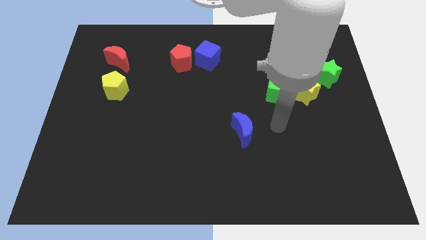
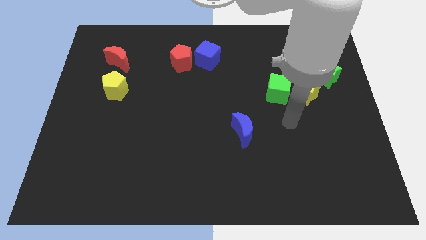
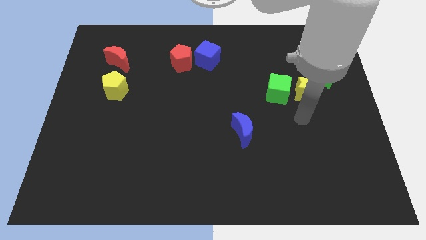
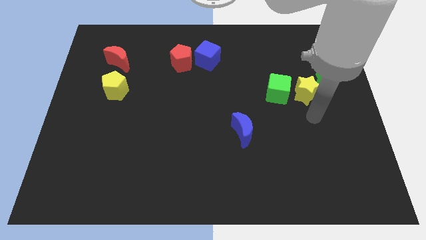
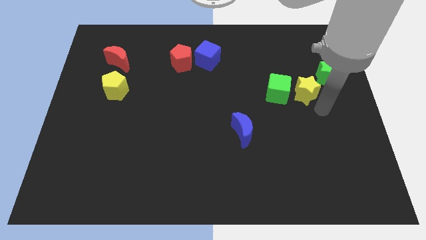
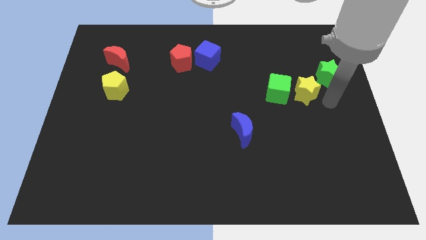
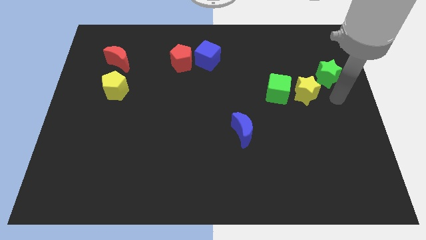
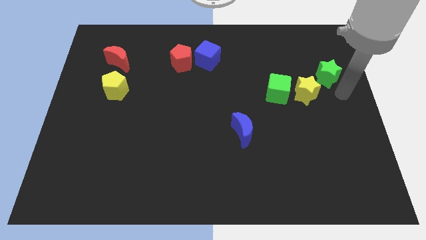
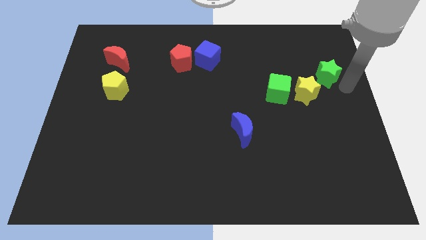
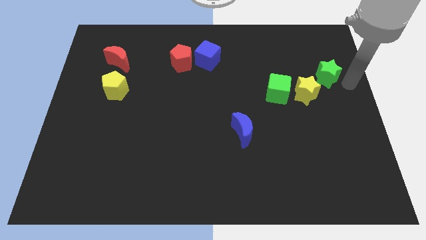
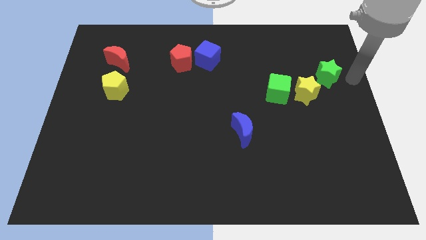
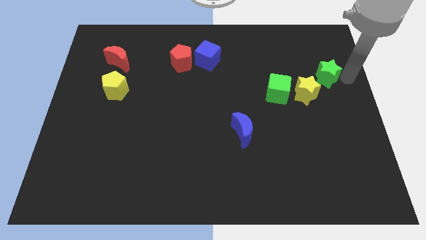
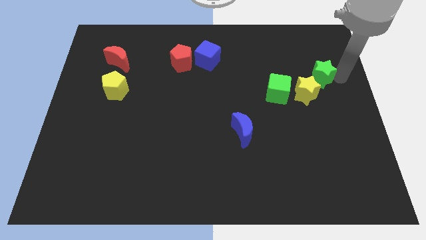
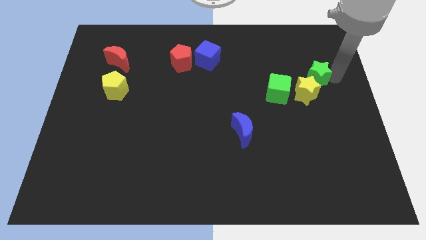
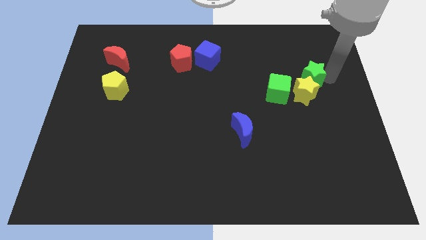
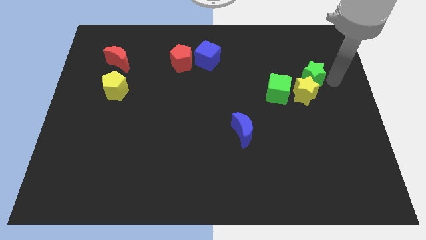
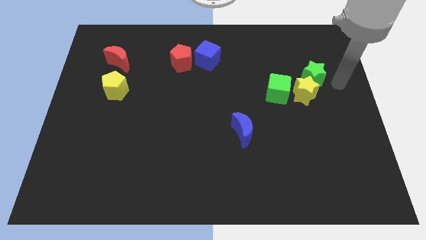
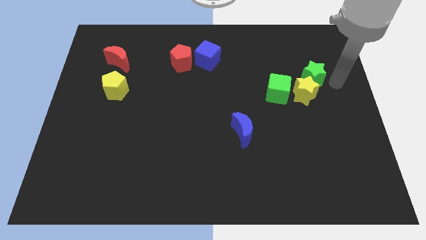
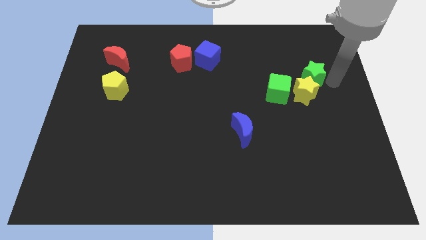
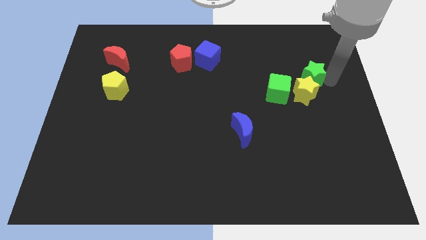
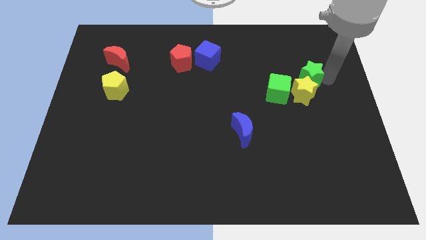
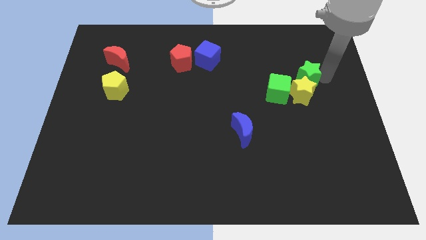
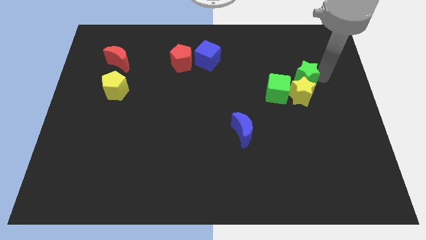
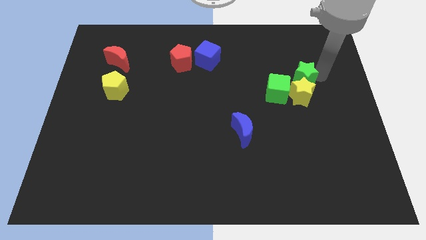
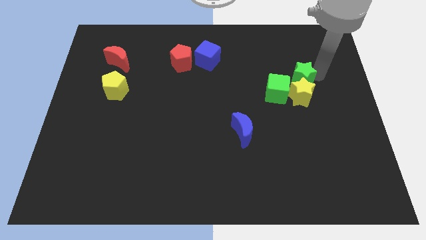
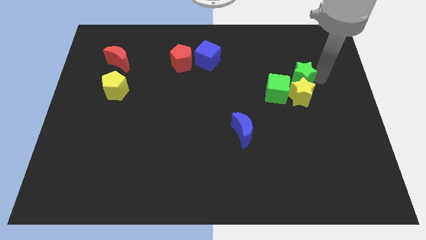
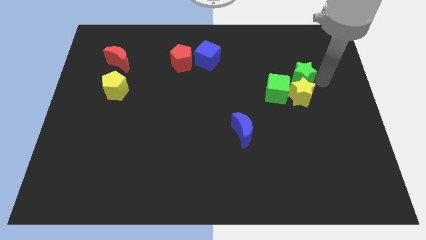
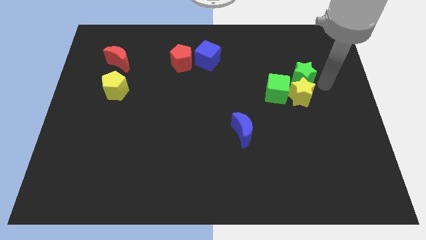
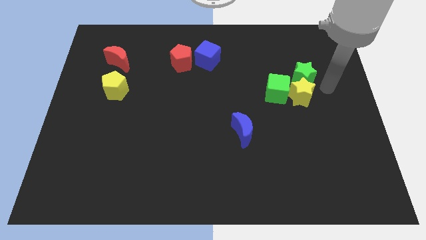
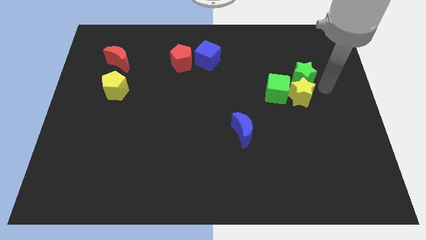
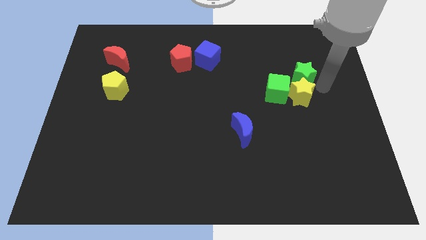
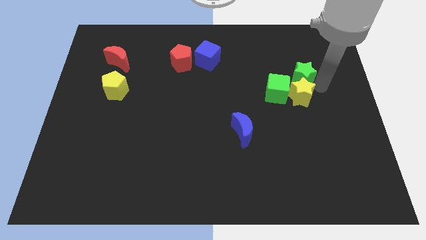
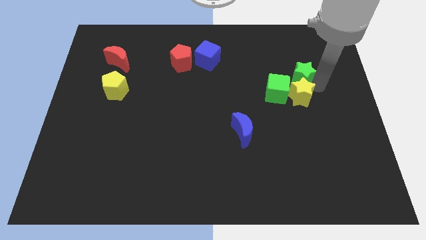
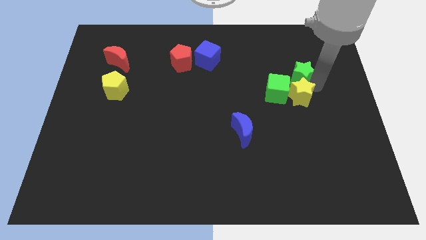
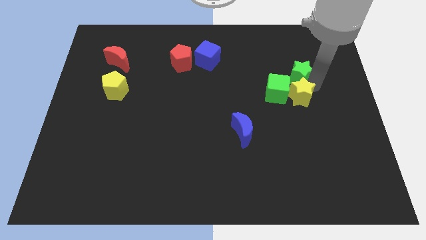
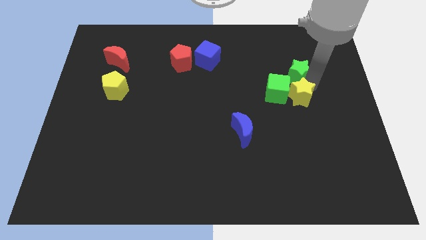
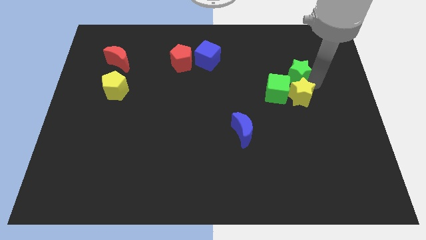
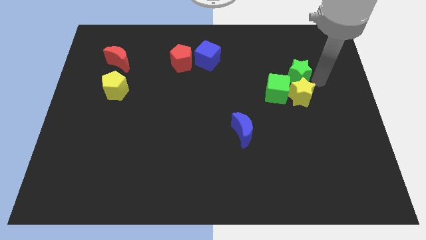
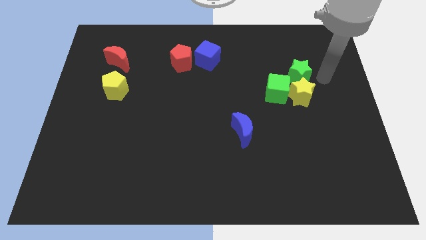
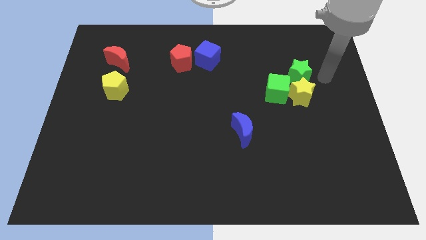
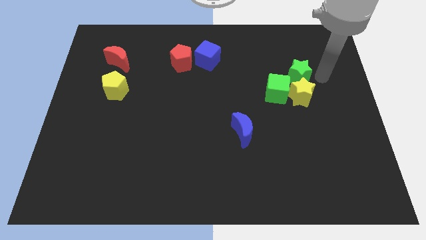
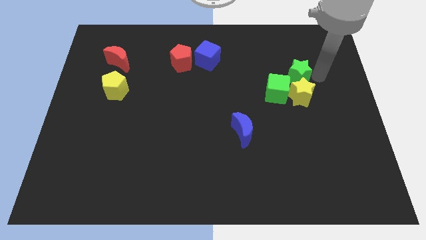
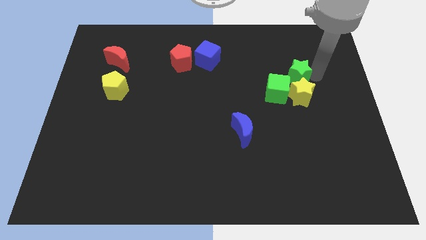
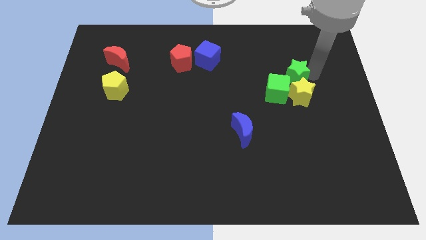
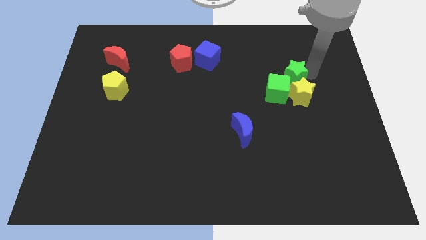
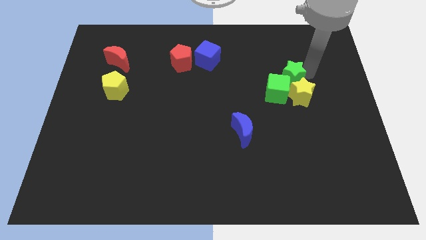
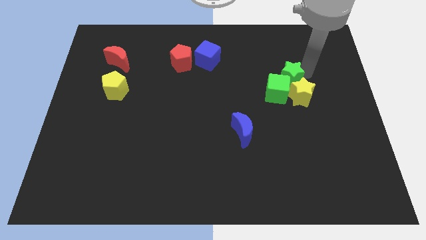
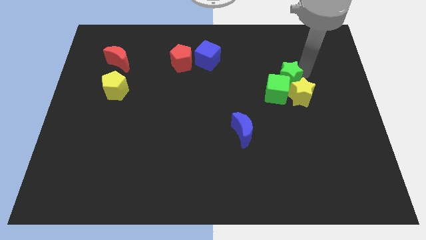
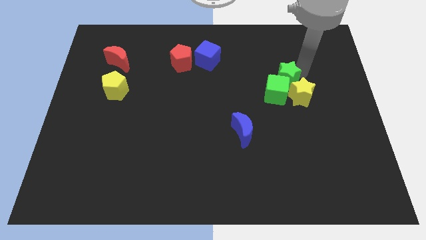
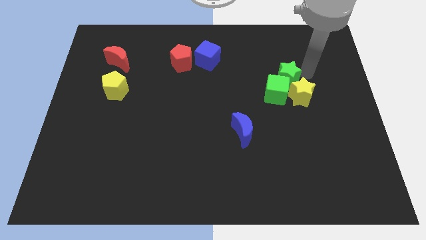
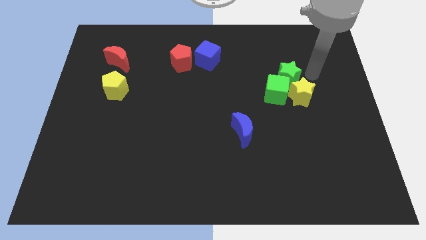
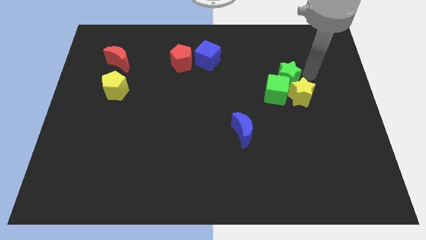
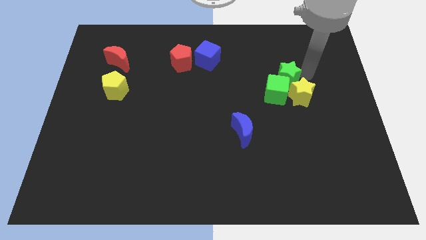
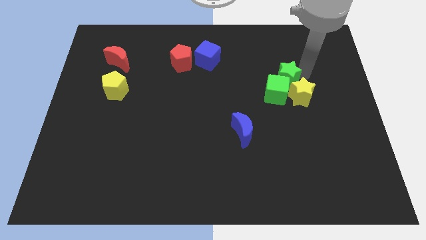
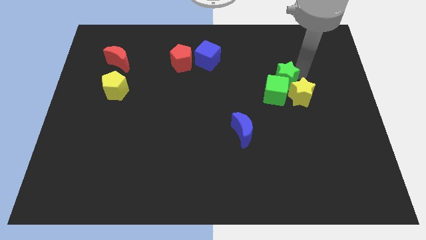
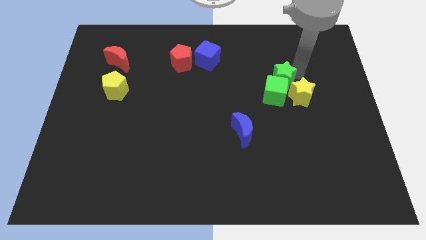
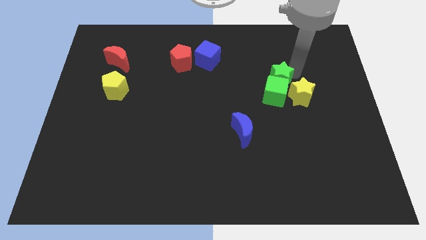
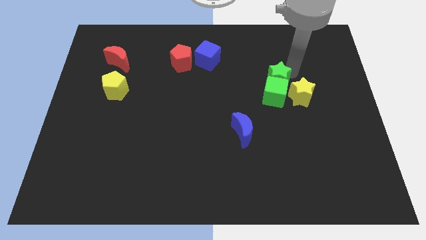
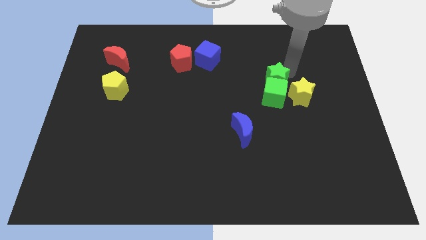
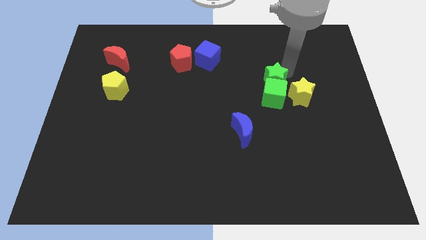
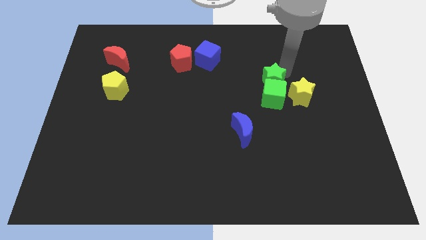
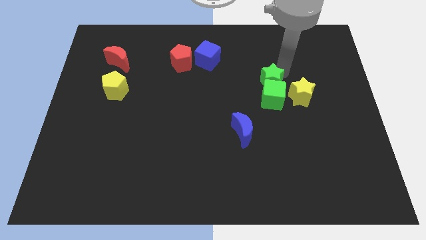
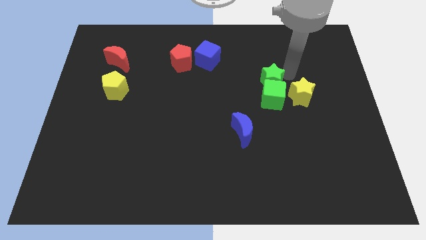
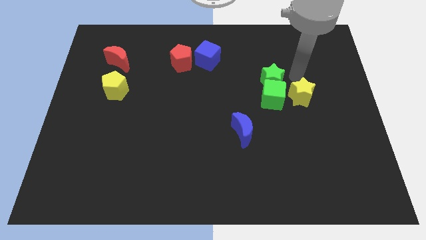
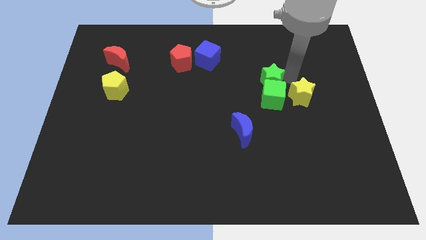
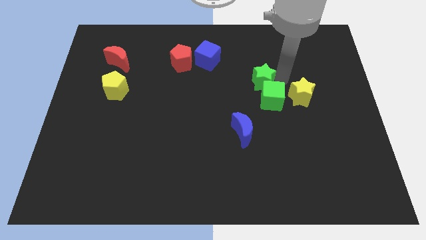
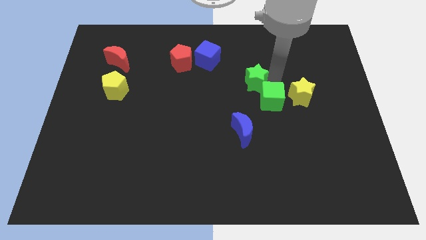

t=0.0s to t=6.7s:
move the green star to the middle
